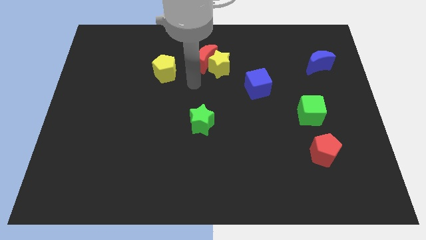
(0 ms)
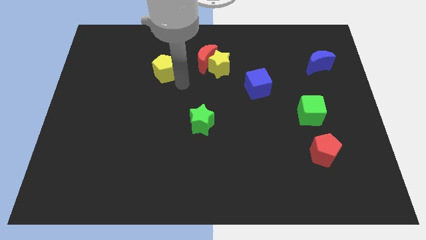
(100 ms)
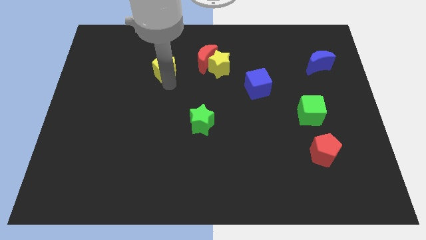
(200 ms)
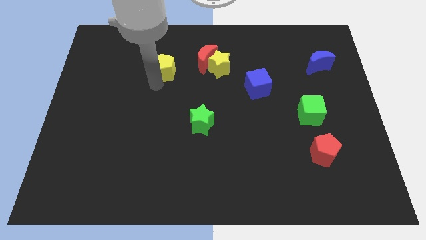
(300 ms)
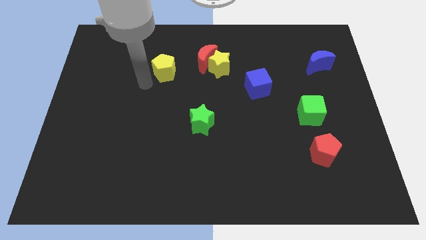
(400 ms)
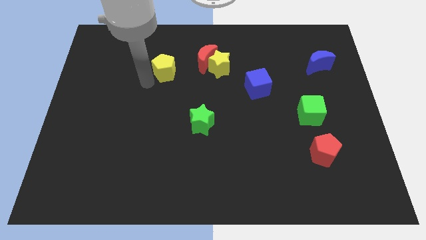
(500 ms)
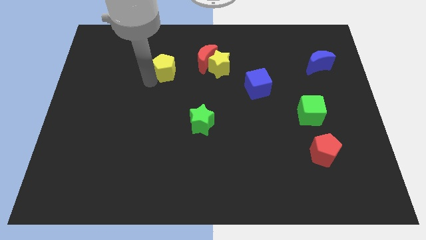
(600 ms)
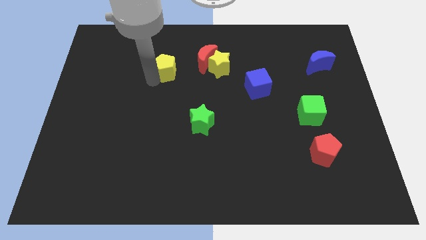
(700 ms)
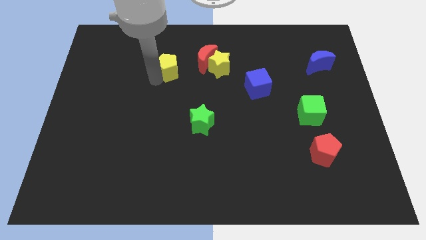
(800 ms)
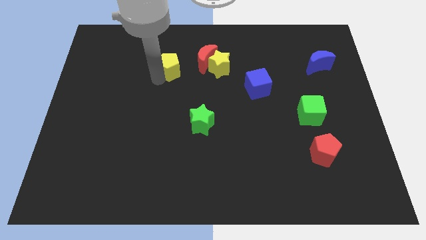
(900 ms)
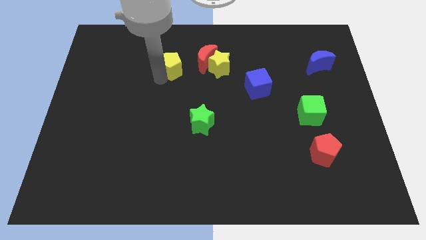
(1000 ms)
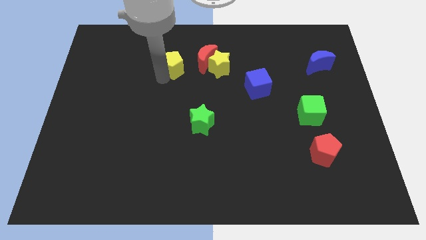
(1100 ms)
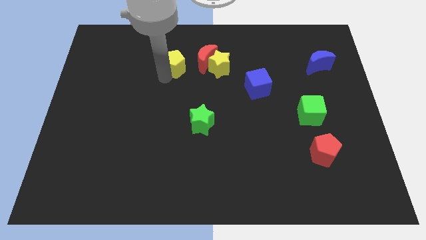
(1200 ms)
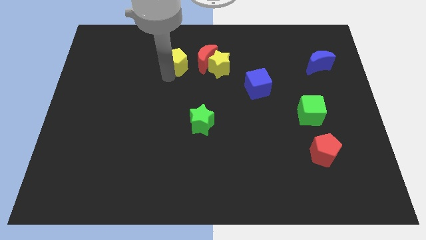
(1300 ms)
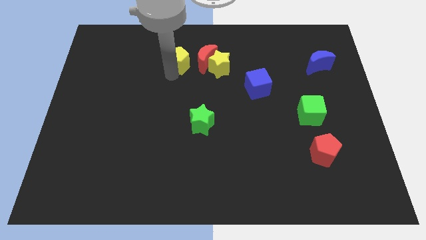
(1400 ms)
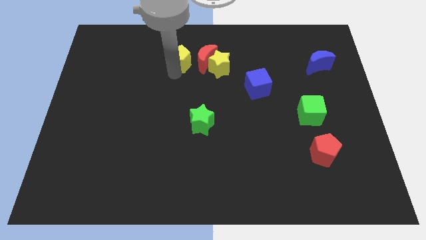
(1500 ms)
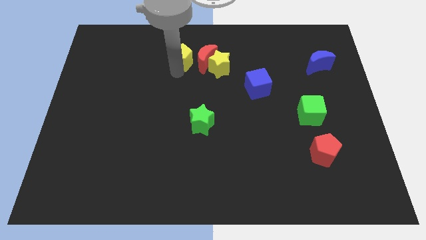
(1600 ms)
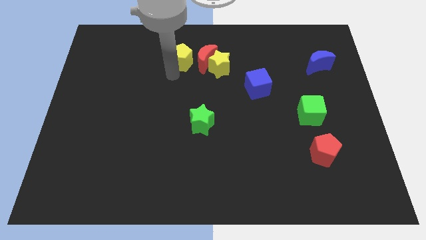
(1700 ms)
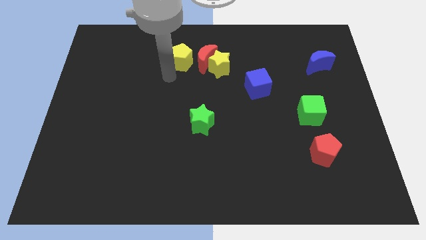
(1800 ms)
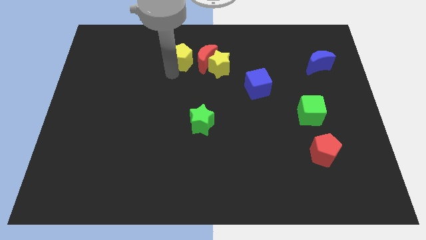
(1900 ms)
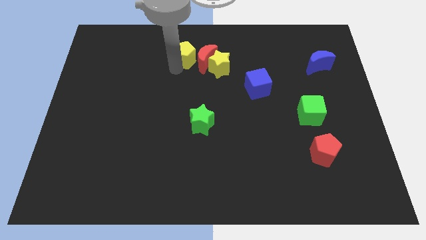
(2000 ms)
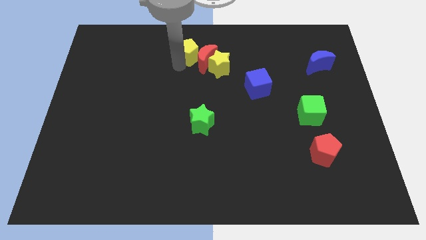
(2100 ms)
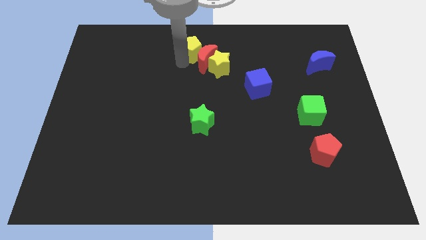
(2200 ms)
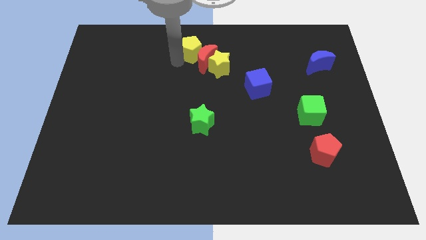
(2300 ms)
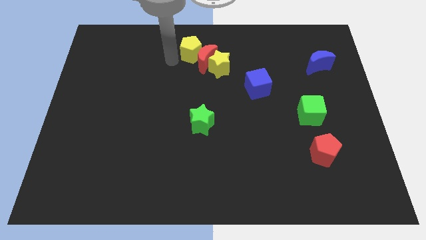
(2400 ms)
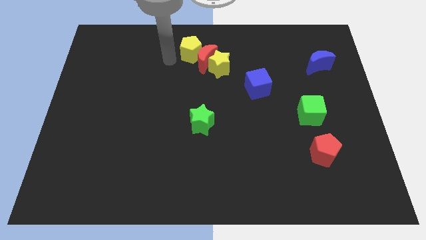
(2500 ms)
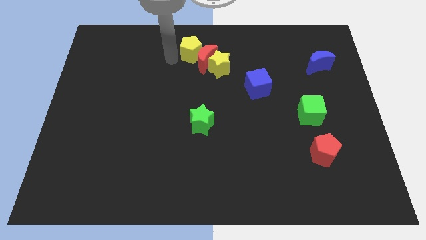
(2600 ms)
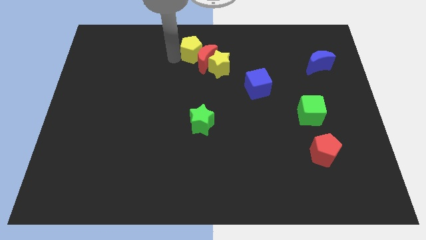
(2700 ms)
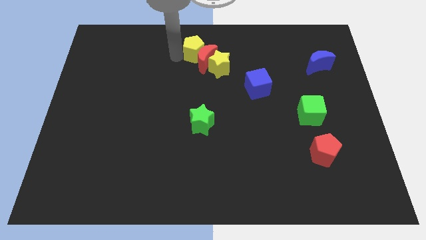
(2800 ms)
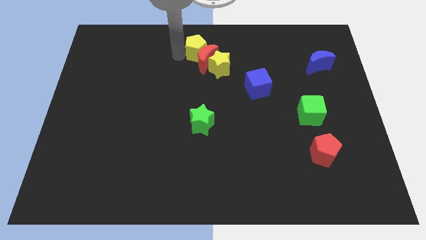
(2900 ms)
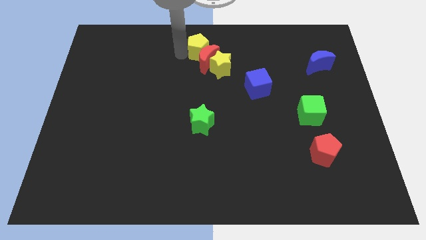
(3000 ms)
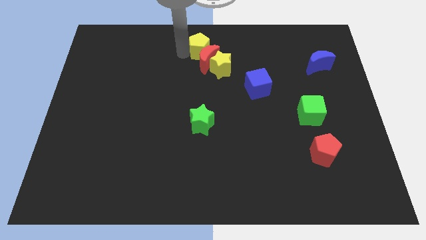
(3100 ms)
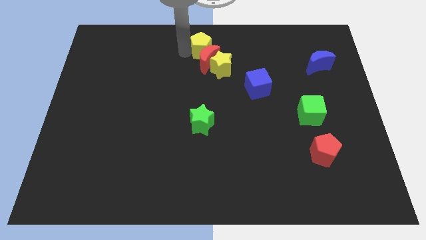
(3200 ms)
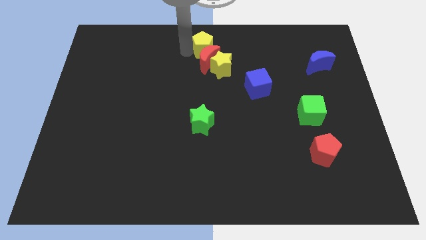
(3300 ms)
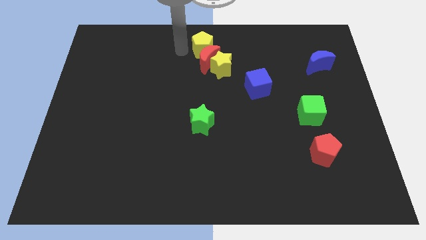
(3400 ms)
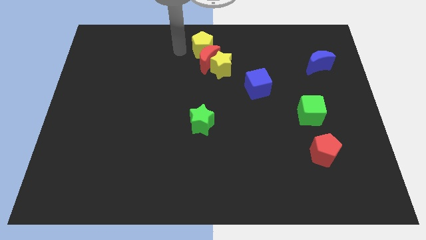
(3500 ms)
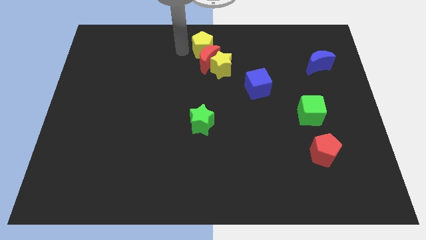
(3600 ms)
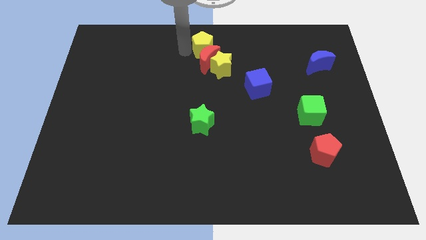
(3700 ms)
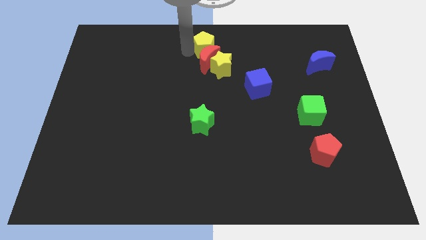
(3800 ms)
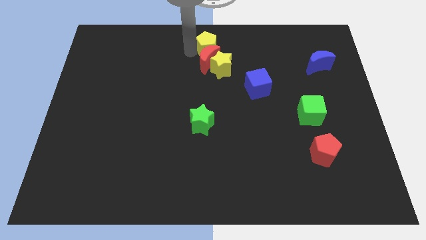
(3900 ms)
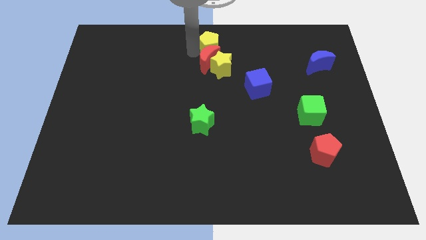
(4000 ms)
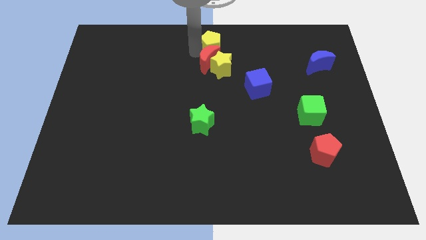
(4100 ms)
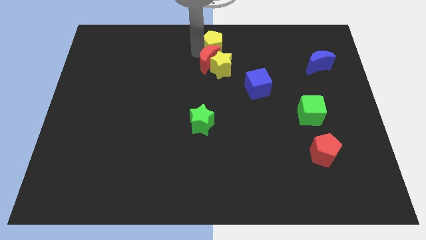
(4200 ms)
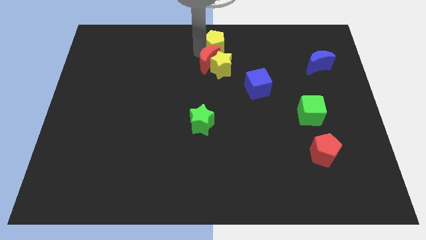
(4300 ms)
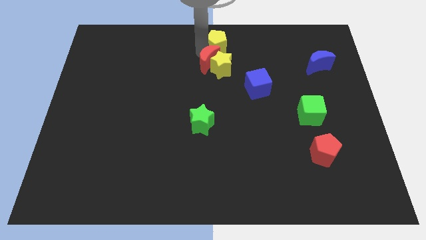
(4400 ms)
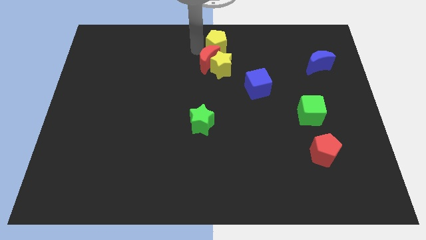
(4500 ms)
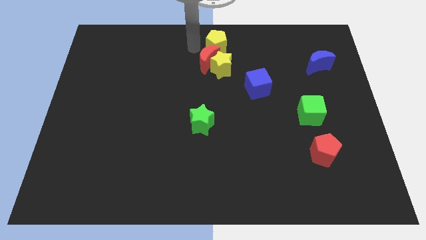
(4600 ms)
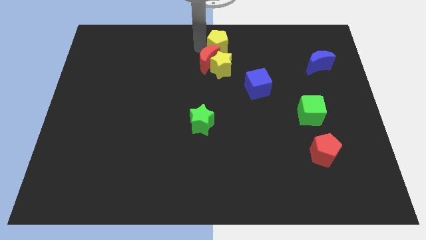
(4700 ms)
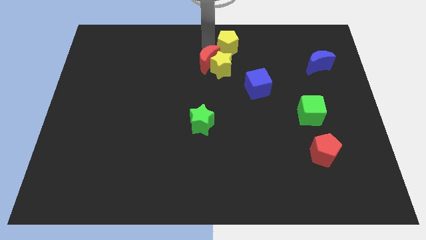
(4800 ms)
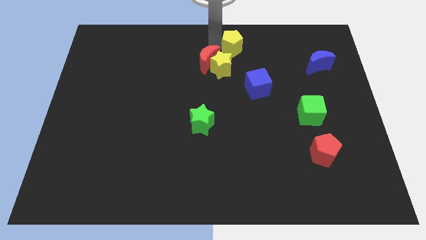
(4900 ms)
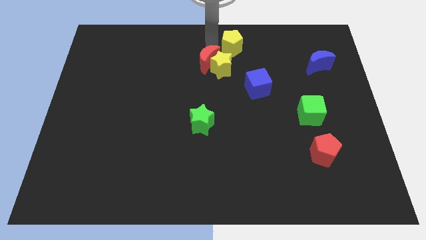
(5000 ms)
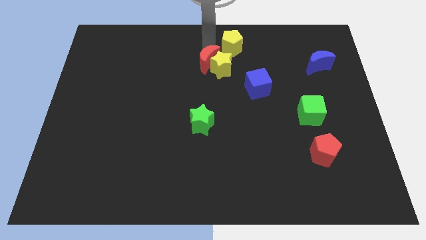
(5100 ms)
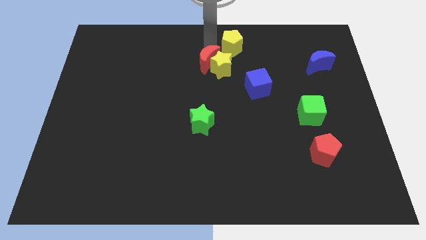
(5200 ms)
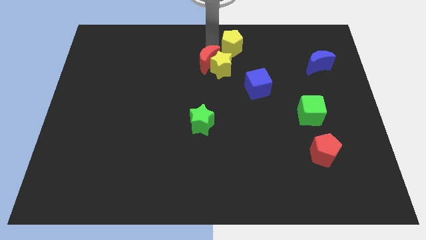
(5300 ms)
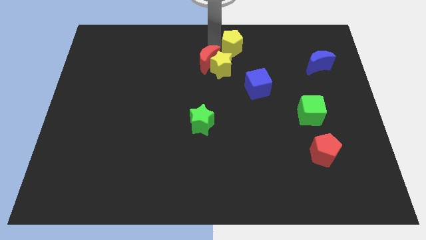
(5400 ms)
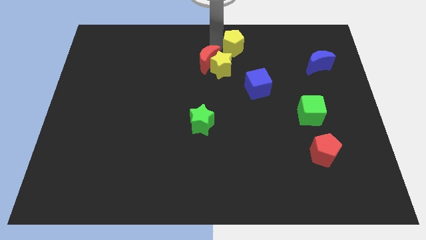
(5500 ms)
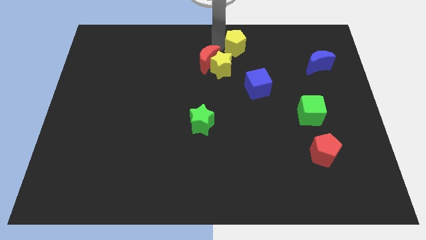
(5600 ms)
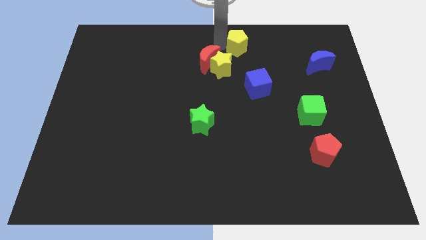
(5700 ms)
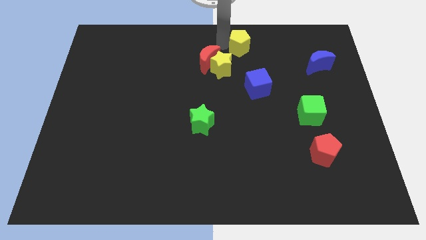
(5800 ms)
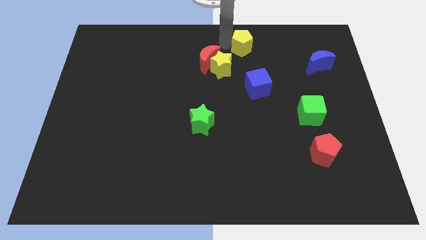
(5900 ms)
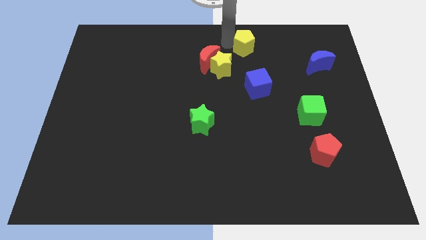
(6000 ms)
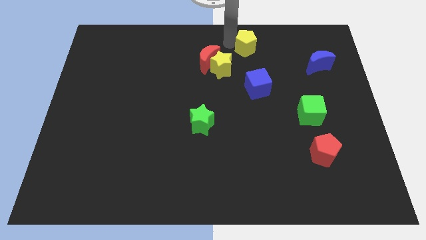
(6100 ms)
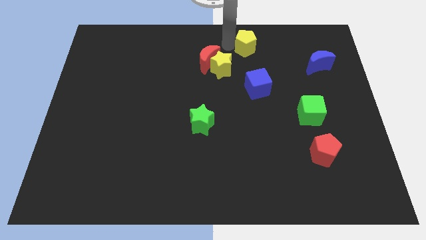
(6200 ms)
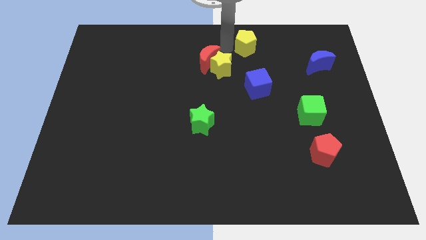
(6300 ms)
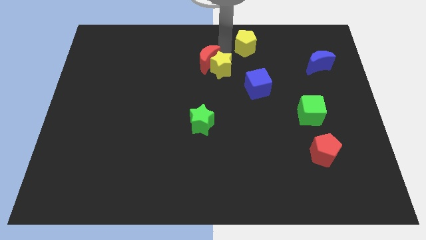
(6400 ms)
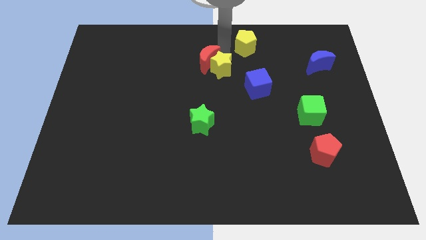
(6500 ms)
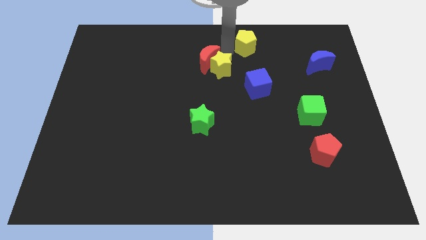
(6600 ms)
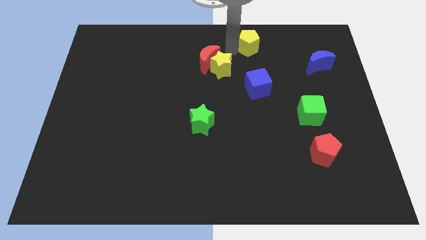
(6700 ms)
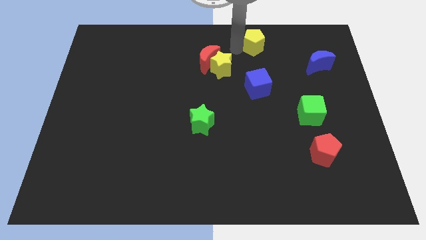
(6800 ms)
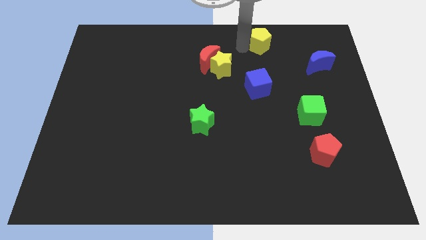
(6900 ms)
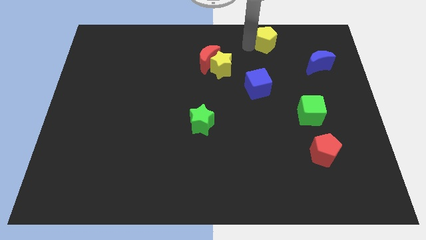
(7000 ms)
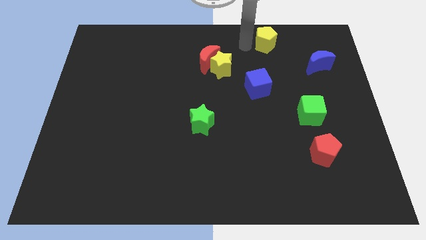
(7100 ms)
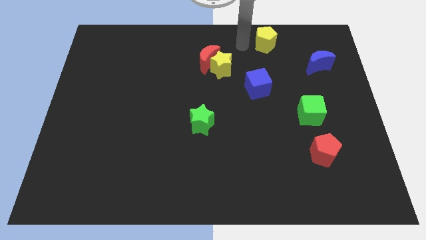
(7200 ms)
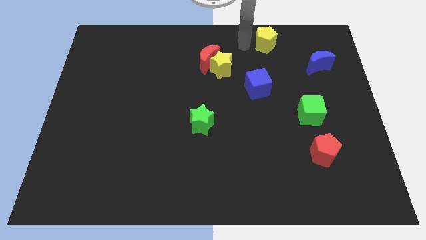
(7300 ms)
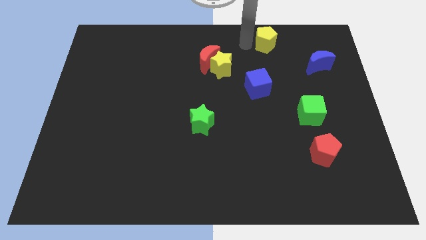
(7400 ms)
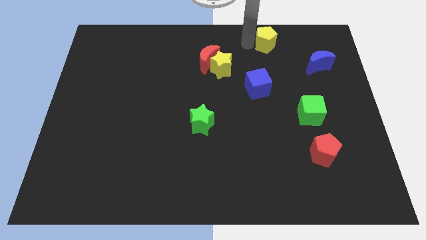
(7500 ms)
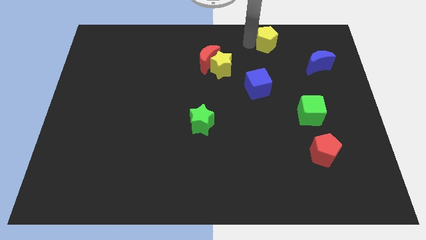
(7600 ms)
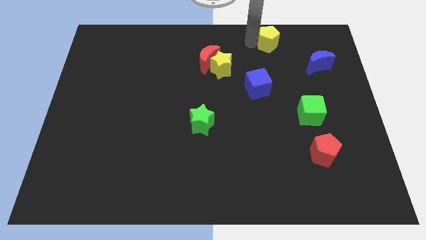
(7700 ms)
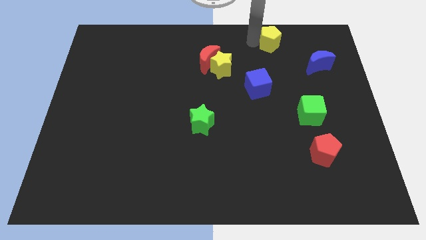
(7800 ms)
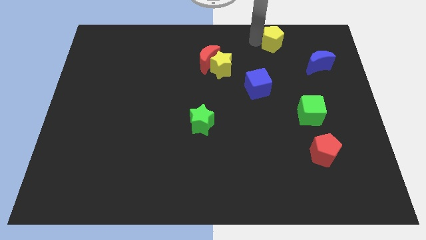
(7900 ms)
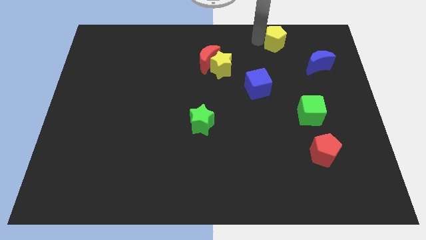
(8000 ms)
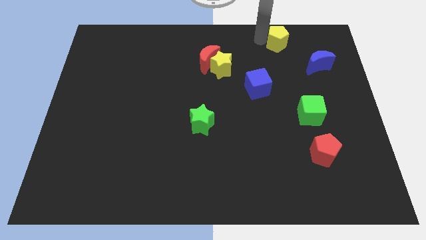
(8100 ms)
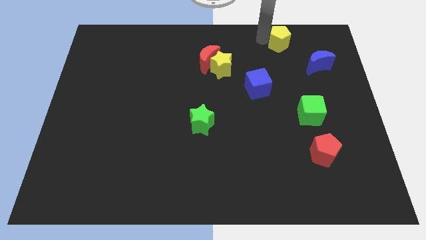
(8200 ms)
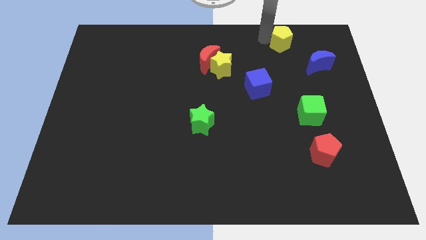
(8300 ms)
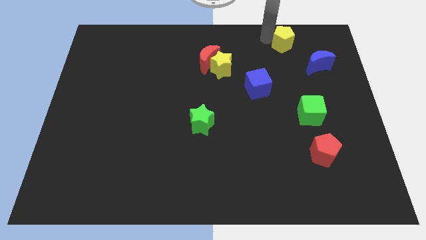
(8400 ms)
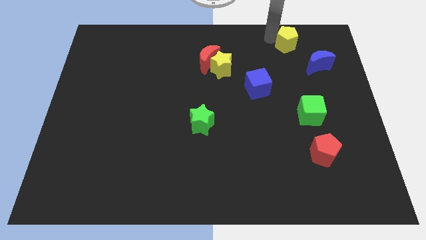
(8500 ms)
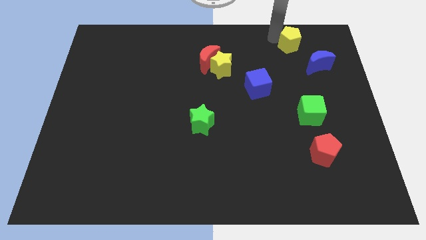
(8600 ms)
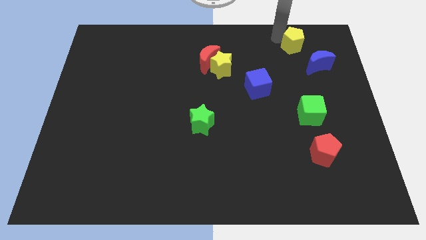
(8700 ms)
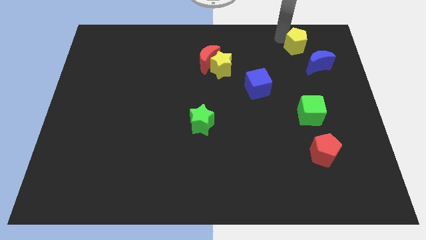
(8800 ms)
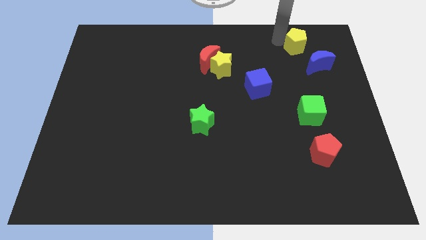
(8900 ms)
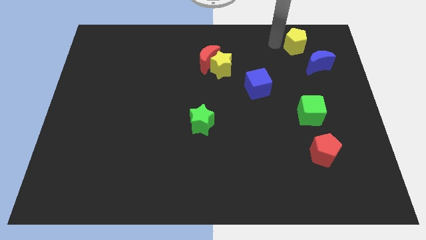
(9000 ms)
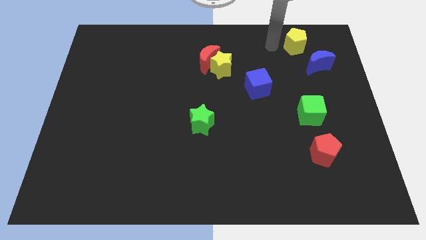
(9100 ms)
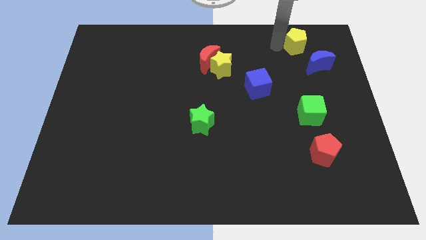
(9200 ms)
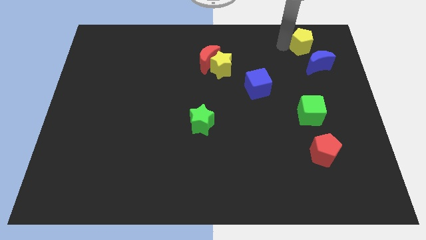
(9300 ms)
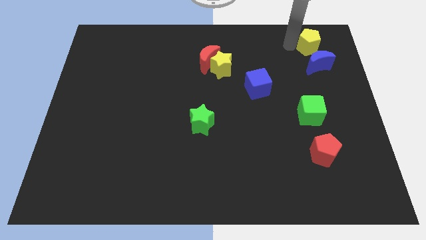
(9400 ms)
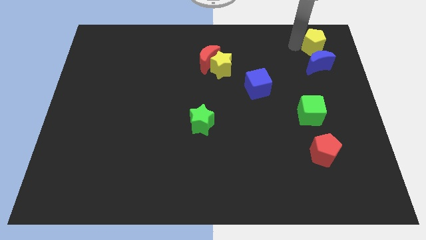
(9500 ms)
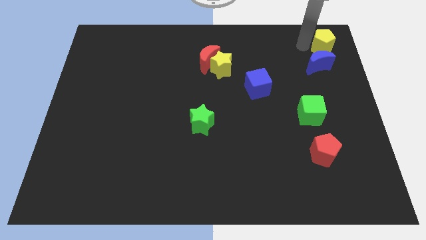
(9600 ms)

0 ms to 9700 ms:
push the yellow pentagon to the upper right corner
